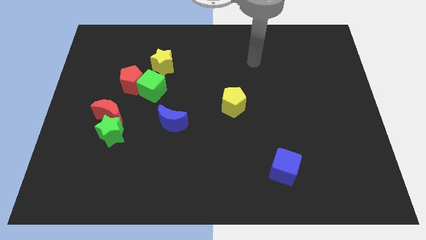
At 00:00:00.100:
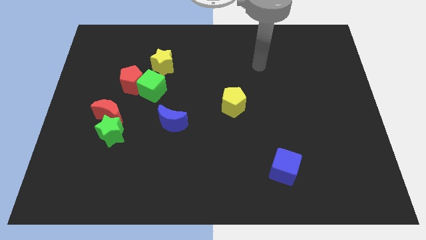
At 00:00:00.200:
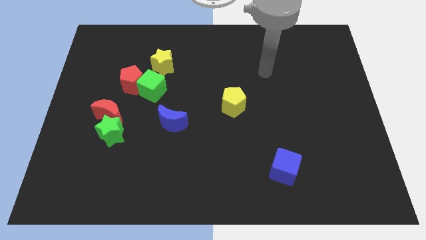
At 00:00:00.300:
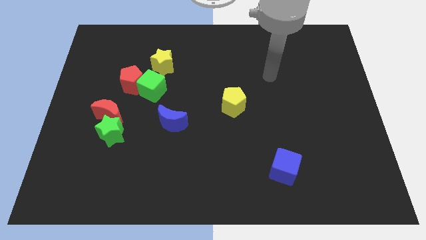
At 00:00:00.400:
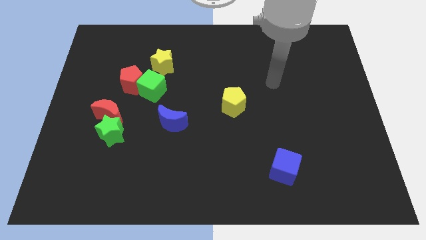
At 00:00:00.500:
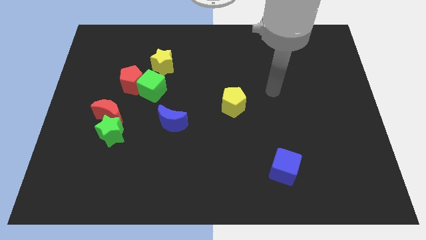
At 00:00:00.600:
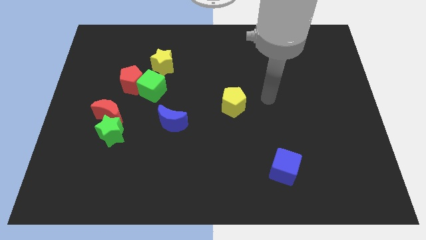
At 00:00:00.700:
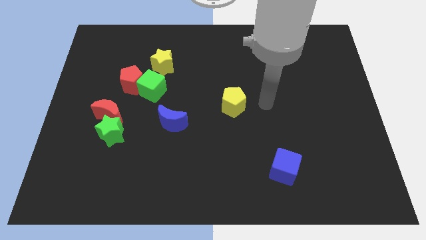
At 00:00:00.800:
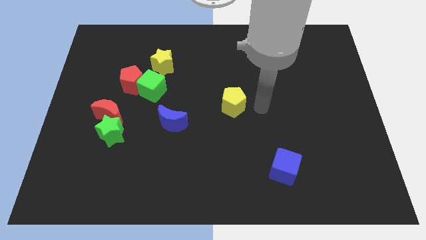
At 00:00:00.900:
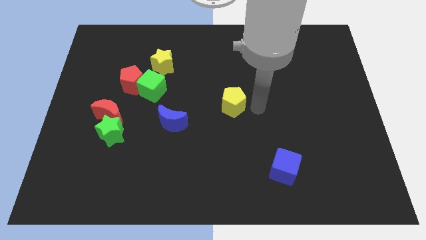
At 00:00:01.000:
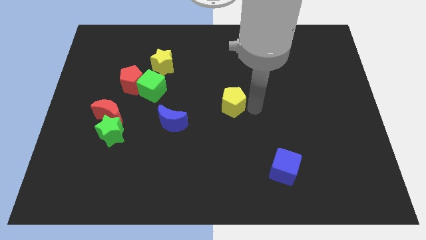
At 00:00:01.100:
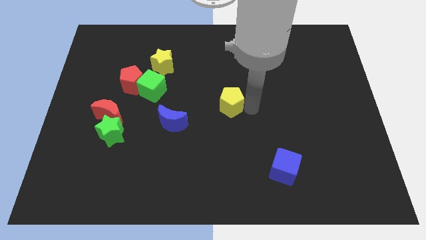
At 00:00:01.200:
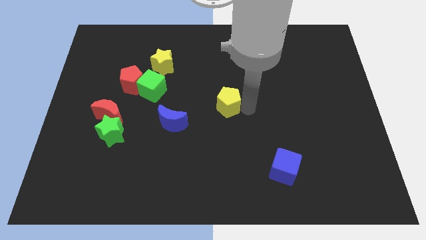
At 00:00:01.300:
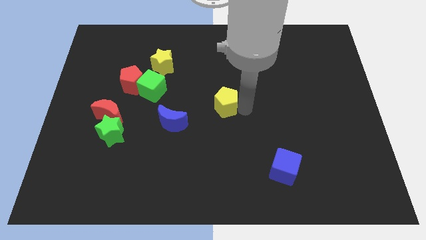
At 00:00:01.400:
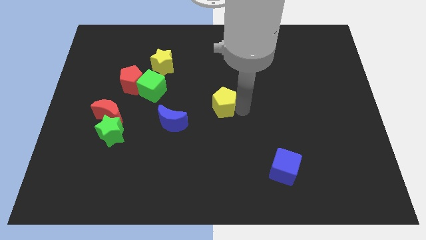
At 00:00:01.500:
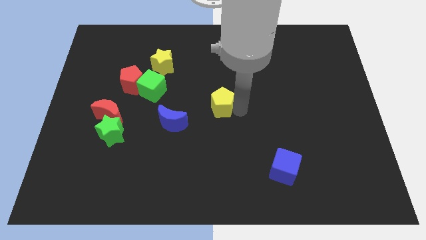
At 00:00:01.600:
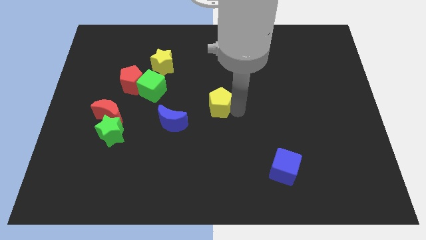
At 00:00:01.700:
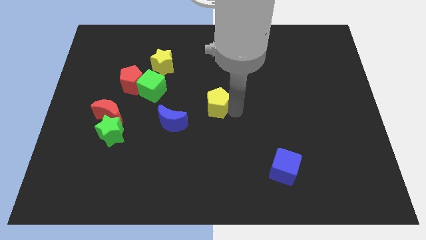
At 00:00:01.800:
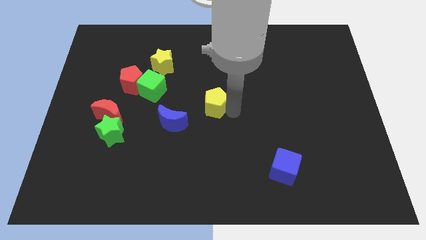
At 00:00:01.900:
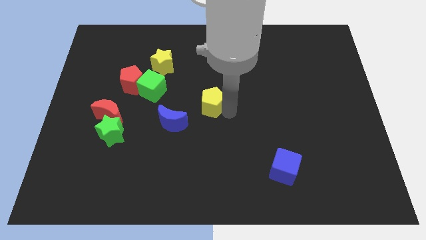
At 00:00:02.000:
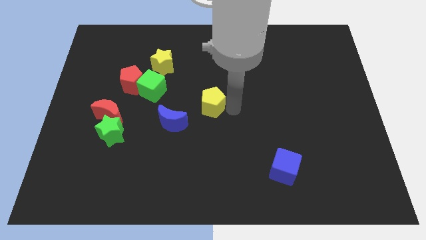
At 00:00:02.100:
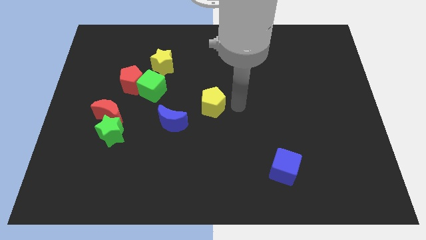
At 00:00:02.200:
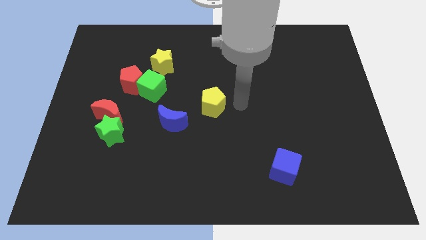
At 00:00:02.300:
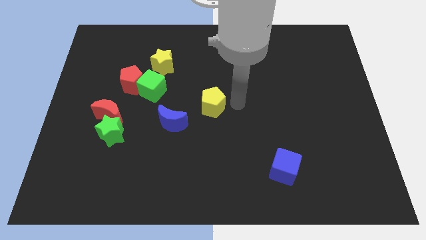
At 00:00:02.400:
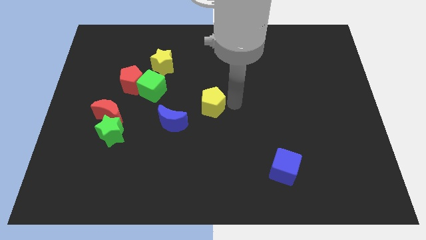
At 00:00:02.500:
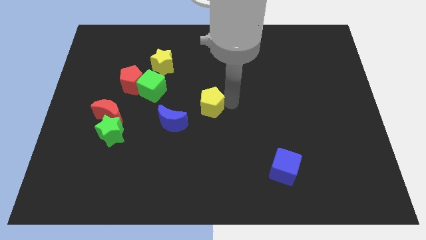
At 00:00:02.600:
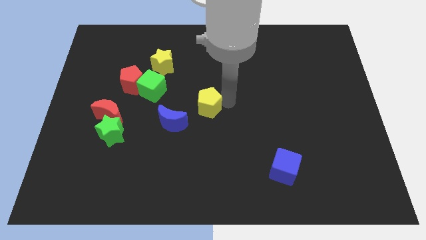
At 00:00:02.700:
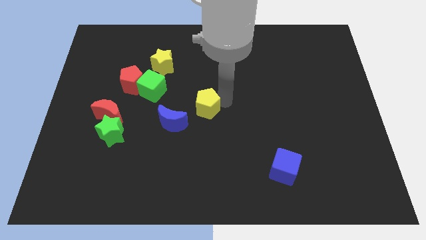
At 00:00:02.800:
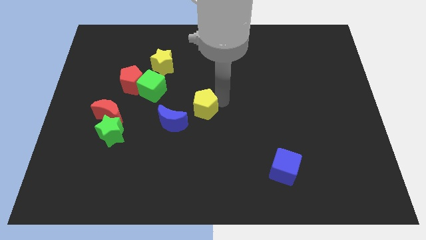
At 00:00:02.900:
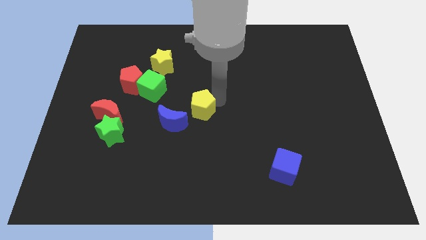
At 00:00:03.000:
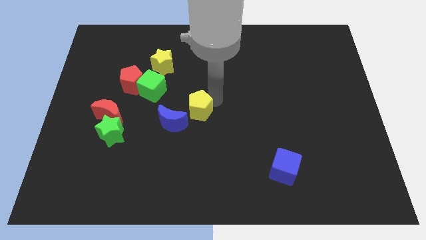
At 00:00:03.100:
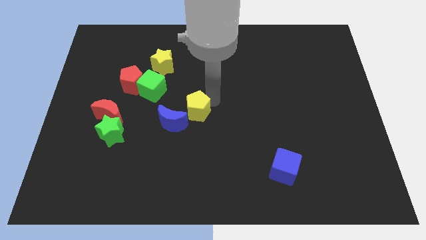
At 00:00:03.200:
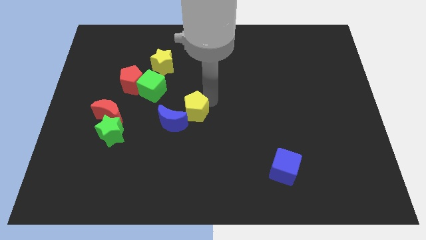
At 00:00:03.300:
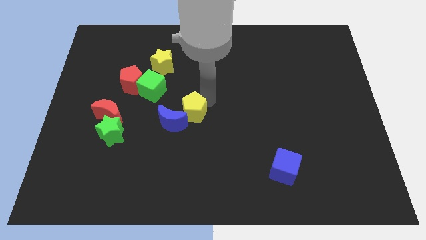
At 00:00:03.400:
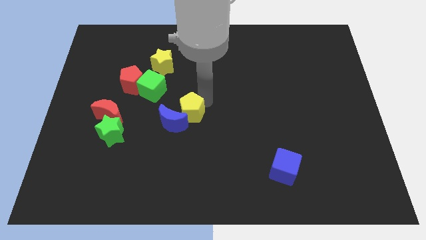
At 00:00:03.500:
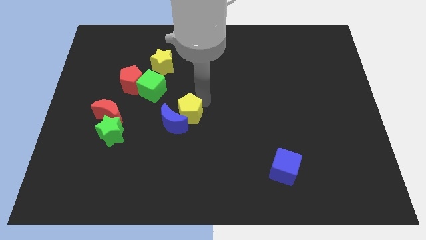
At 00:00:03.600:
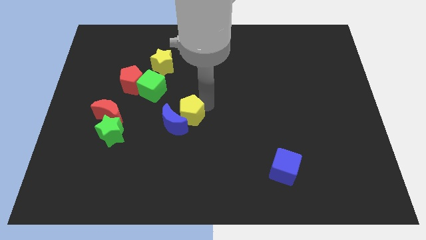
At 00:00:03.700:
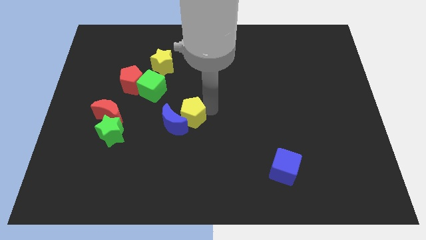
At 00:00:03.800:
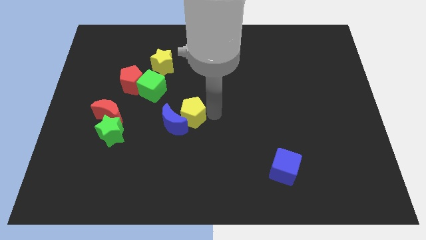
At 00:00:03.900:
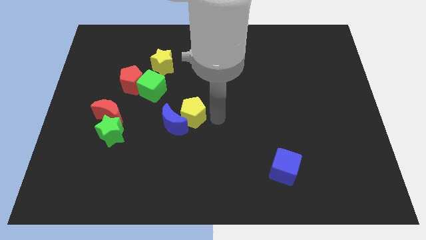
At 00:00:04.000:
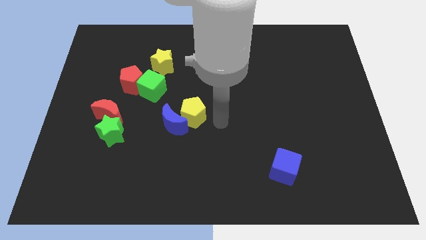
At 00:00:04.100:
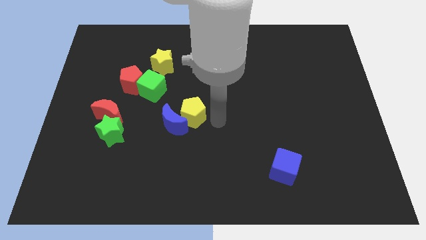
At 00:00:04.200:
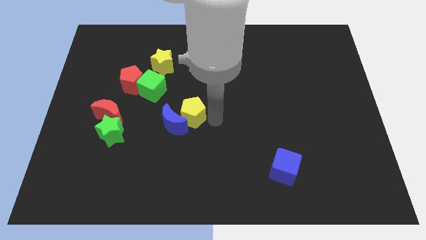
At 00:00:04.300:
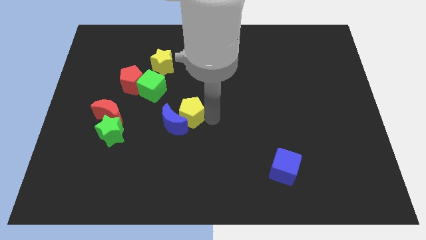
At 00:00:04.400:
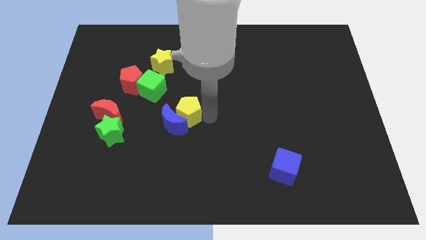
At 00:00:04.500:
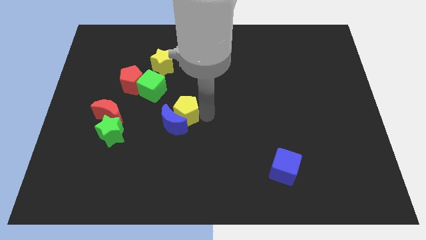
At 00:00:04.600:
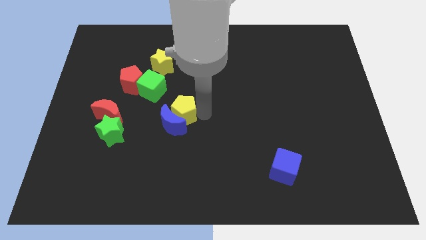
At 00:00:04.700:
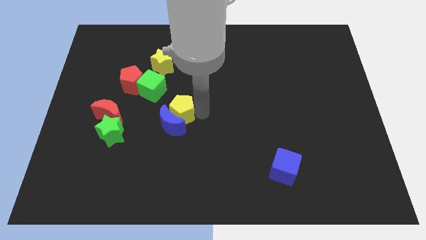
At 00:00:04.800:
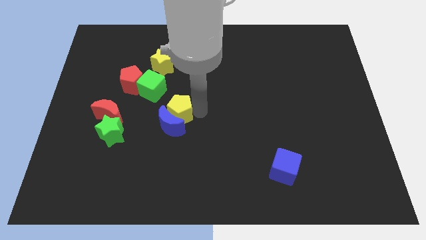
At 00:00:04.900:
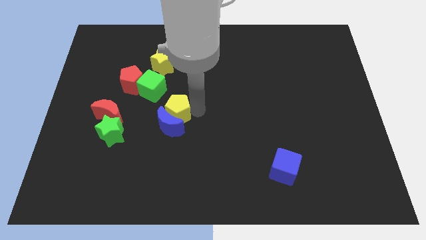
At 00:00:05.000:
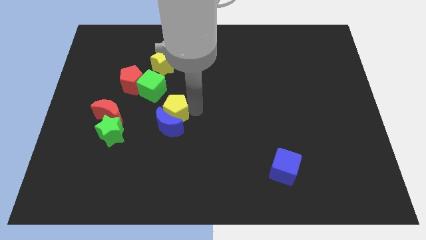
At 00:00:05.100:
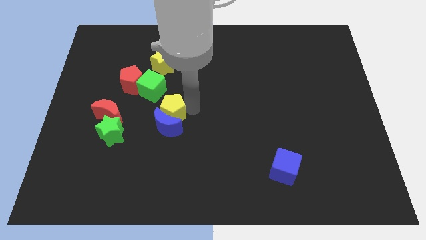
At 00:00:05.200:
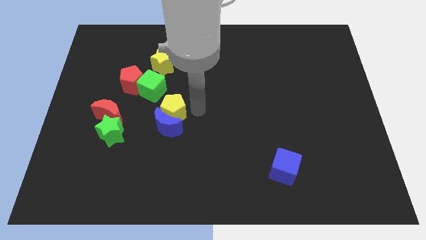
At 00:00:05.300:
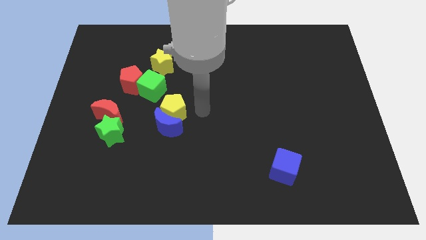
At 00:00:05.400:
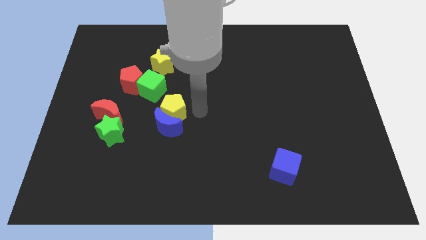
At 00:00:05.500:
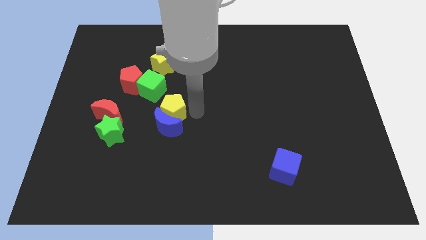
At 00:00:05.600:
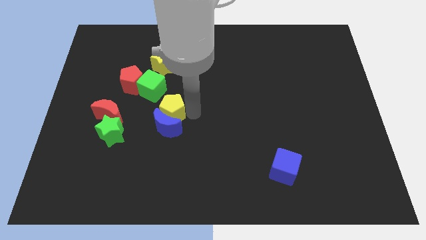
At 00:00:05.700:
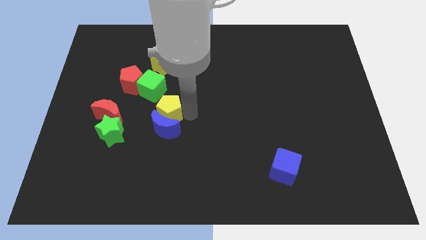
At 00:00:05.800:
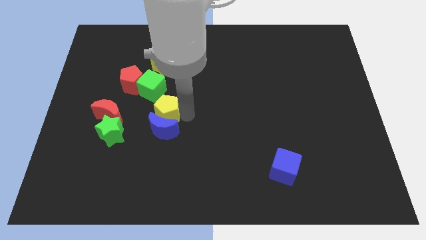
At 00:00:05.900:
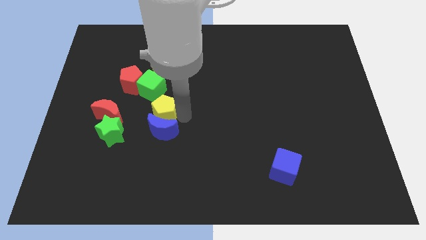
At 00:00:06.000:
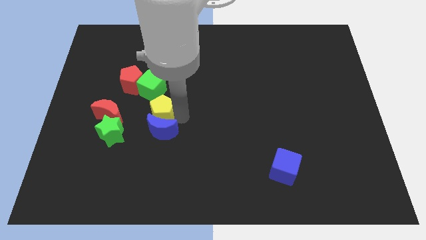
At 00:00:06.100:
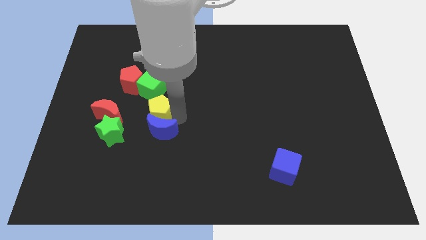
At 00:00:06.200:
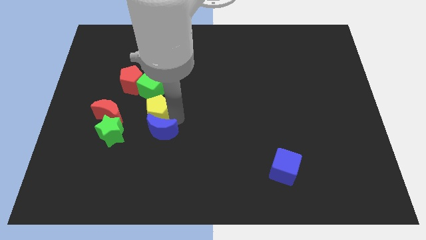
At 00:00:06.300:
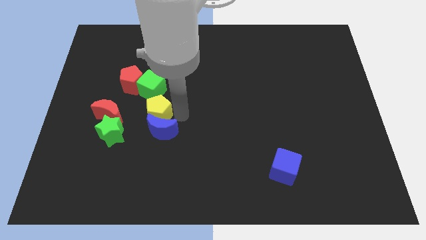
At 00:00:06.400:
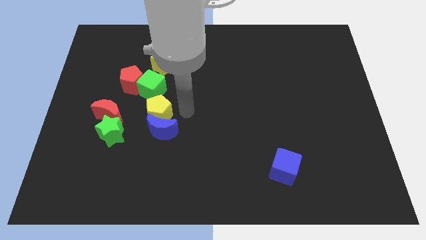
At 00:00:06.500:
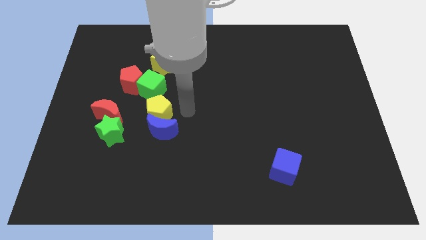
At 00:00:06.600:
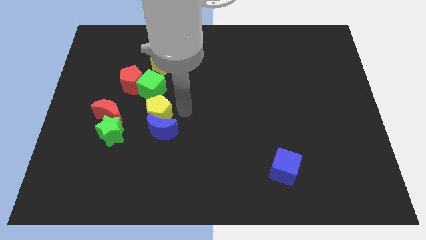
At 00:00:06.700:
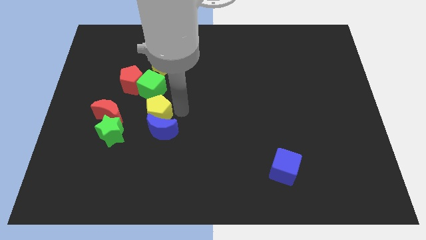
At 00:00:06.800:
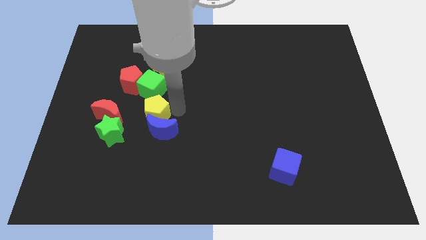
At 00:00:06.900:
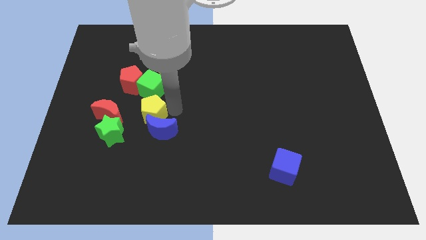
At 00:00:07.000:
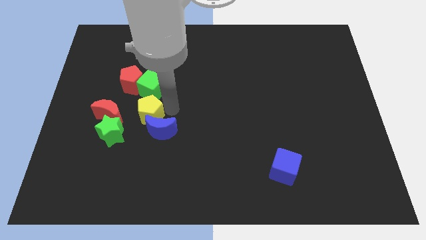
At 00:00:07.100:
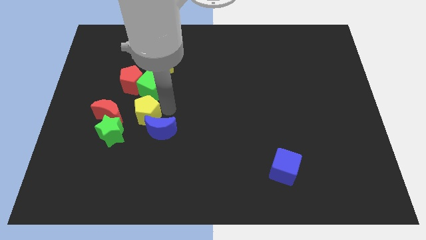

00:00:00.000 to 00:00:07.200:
put the yellow pentagon to the bottom side of the red pentagon
